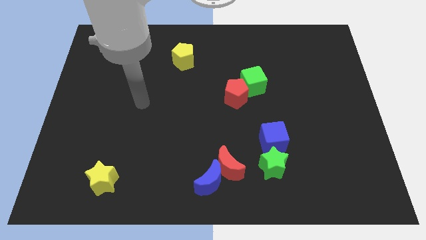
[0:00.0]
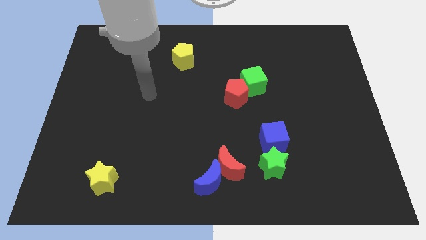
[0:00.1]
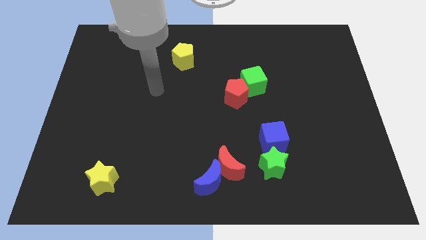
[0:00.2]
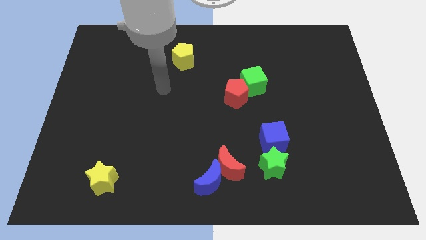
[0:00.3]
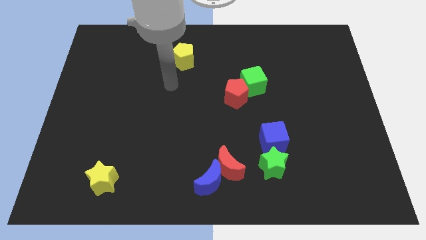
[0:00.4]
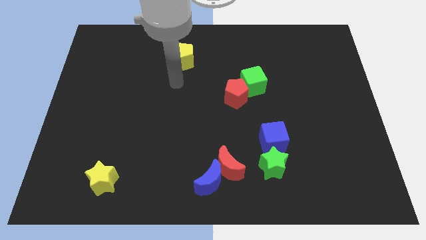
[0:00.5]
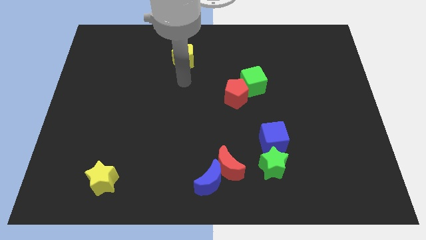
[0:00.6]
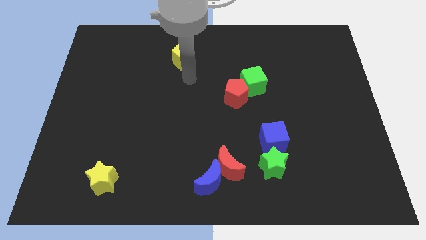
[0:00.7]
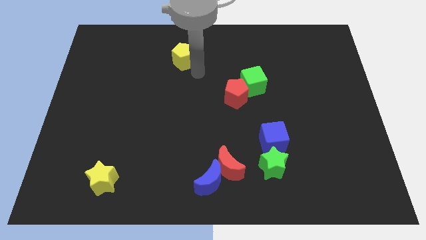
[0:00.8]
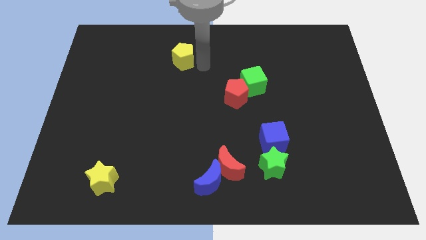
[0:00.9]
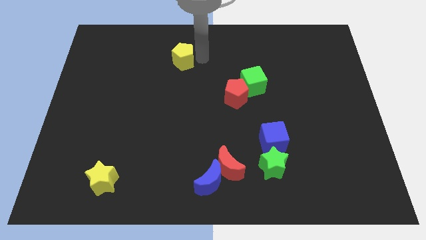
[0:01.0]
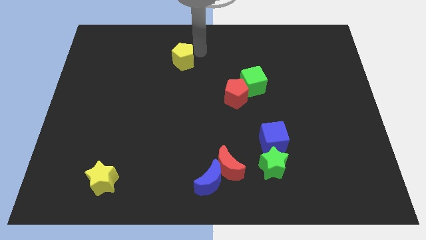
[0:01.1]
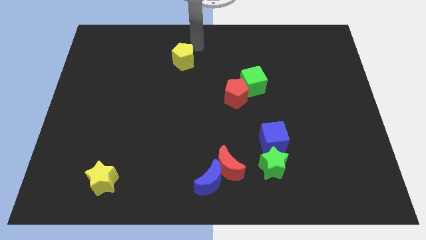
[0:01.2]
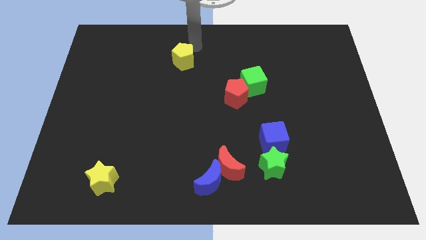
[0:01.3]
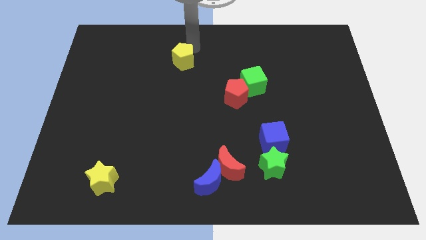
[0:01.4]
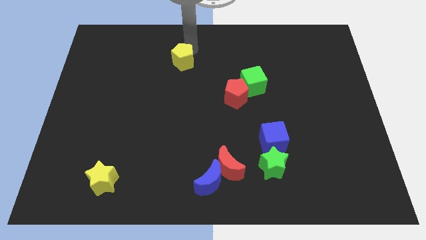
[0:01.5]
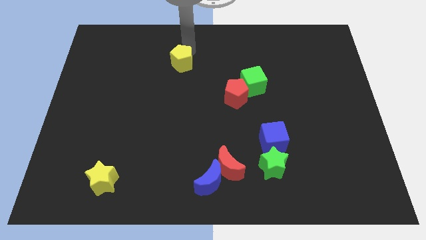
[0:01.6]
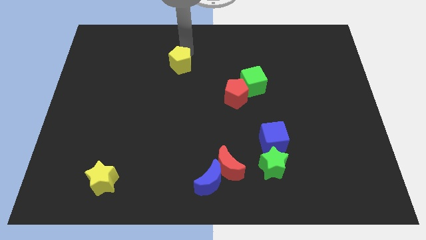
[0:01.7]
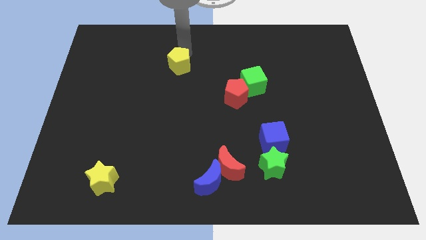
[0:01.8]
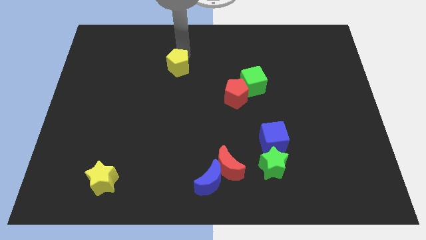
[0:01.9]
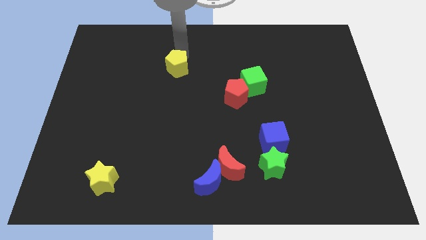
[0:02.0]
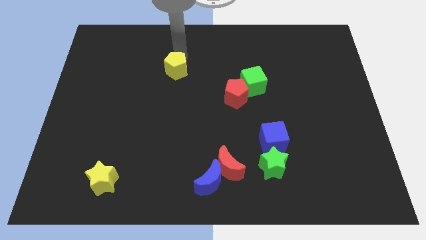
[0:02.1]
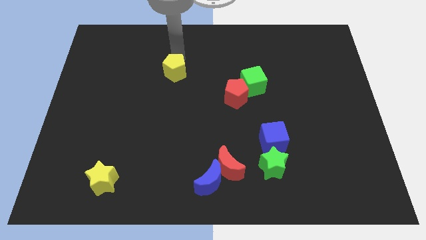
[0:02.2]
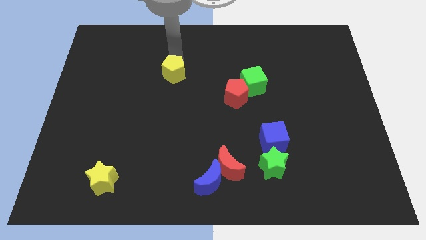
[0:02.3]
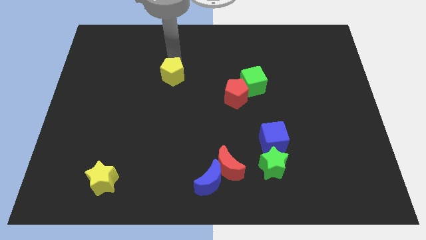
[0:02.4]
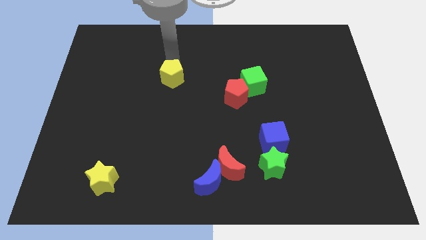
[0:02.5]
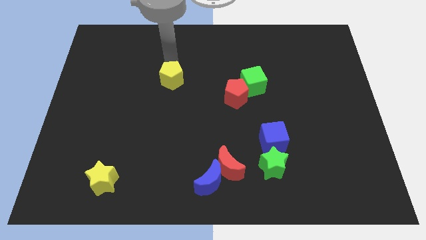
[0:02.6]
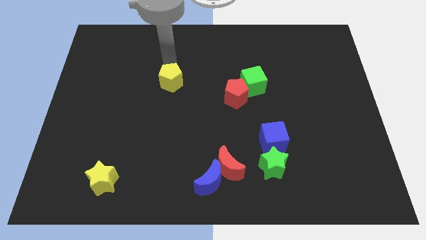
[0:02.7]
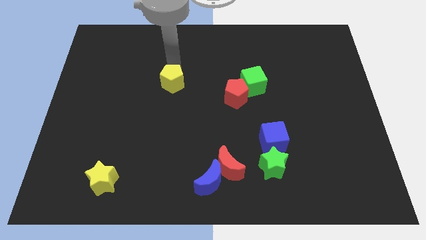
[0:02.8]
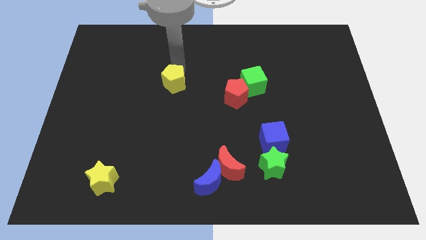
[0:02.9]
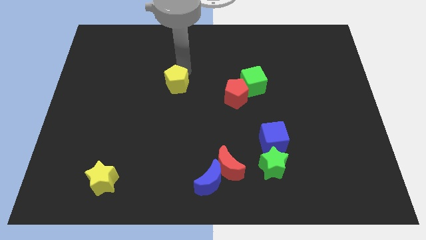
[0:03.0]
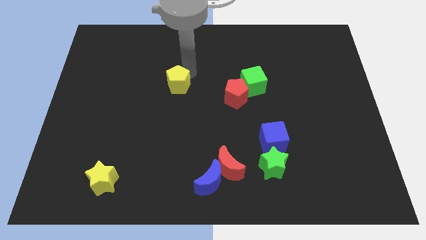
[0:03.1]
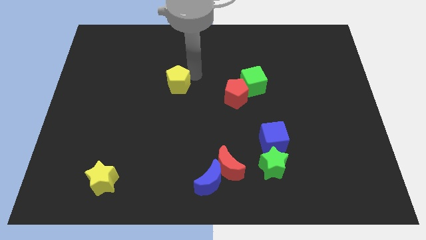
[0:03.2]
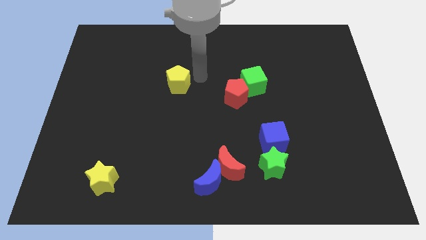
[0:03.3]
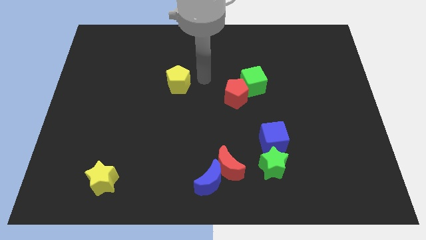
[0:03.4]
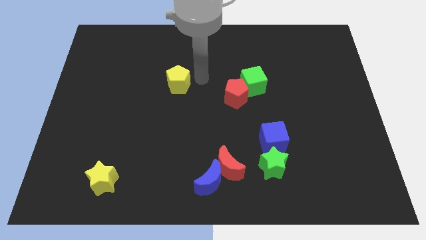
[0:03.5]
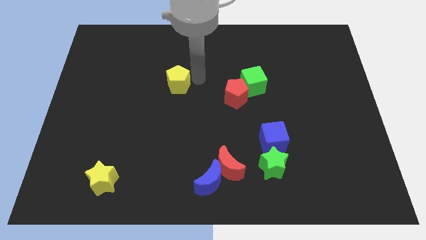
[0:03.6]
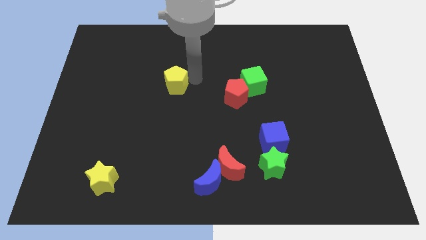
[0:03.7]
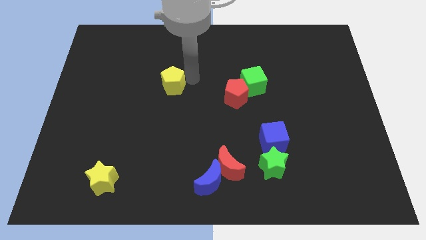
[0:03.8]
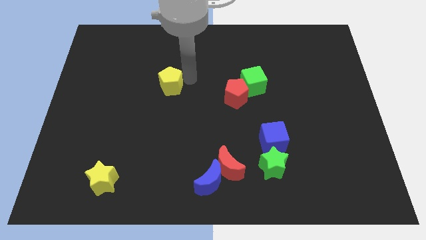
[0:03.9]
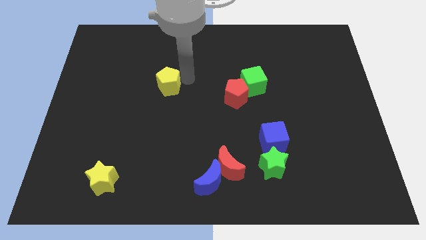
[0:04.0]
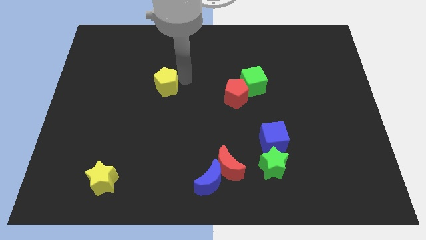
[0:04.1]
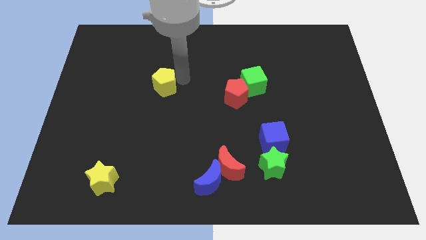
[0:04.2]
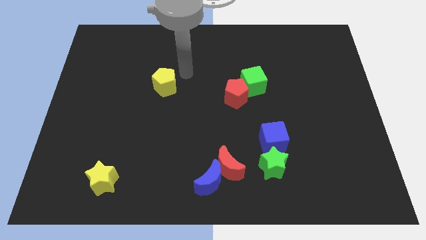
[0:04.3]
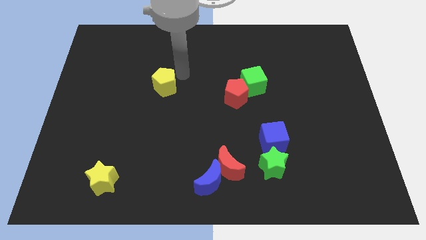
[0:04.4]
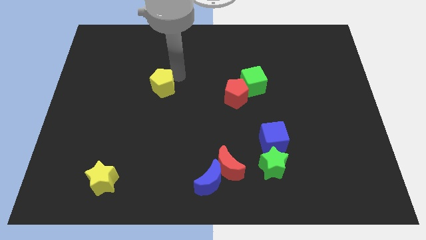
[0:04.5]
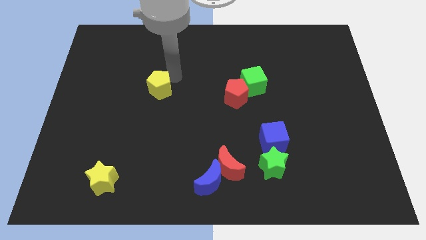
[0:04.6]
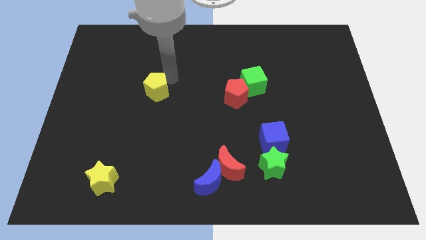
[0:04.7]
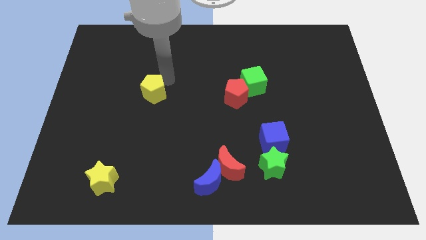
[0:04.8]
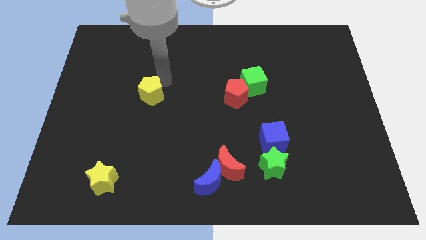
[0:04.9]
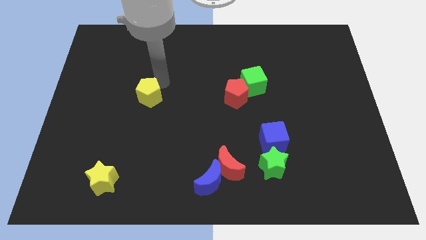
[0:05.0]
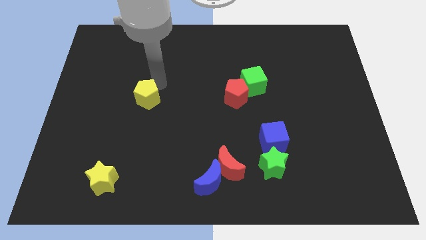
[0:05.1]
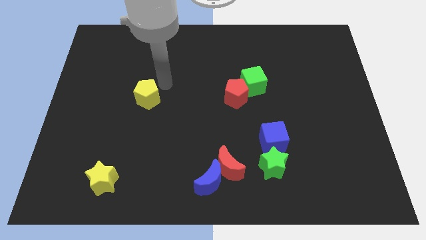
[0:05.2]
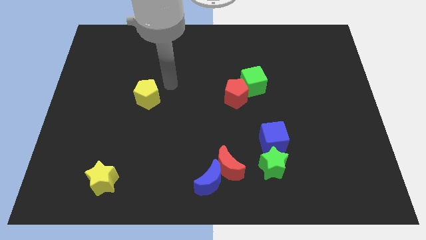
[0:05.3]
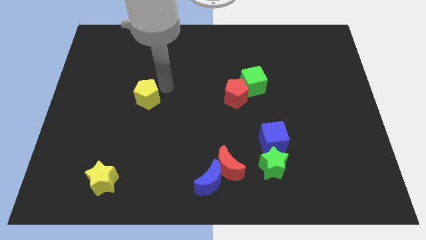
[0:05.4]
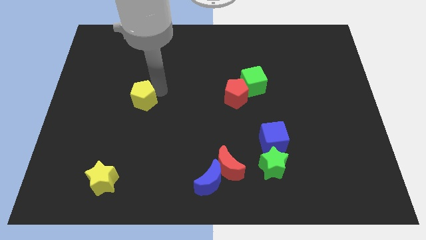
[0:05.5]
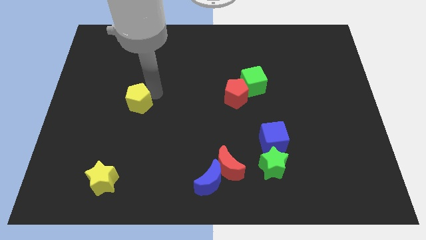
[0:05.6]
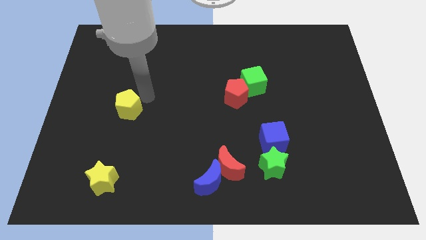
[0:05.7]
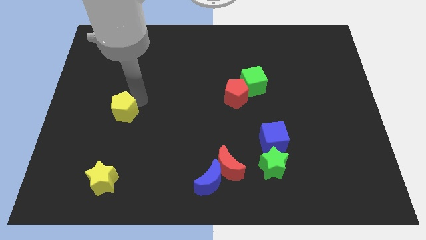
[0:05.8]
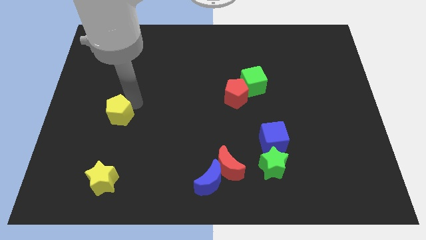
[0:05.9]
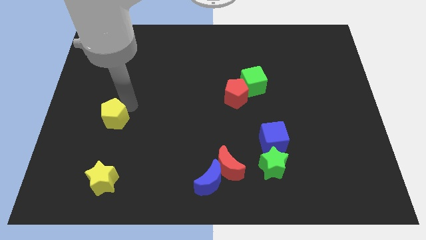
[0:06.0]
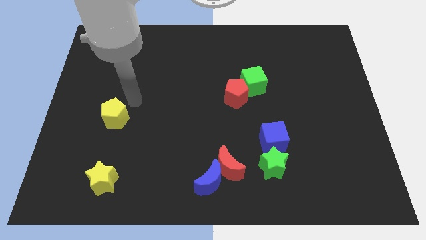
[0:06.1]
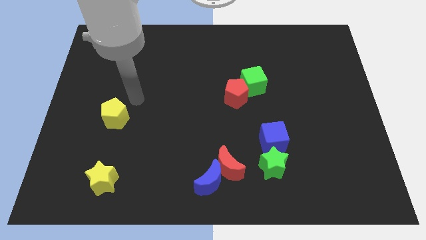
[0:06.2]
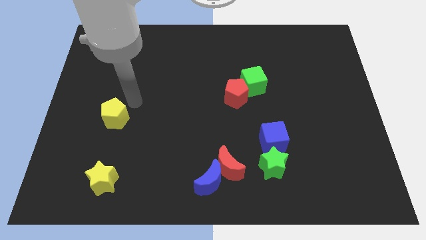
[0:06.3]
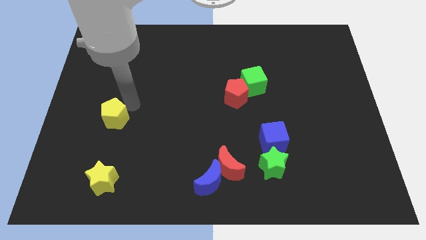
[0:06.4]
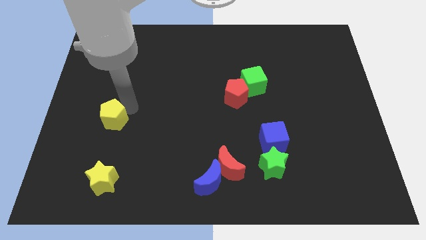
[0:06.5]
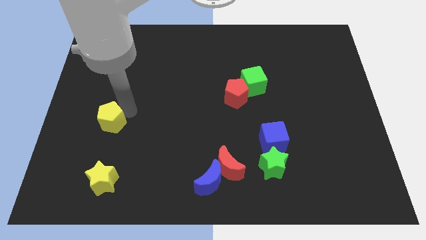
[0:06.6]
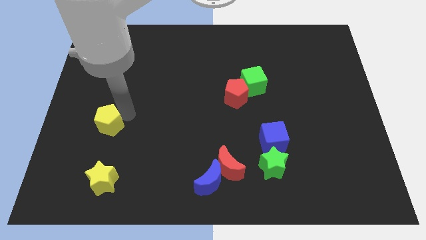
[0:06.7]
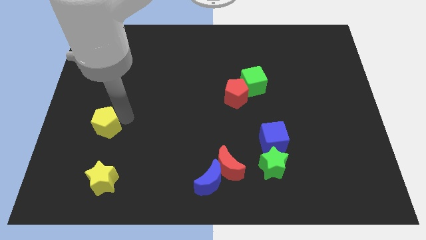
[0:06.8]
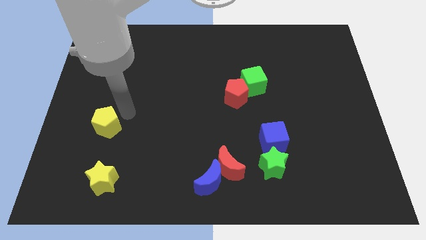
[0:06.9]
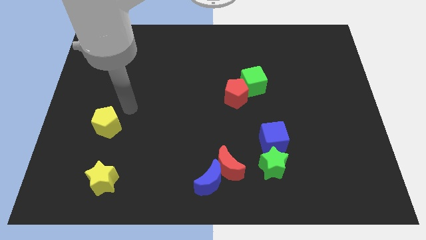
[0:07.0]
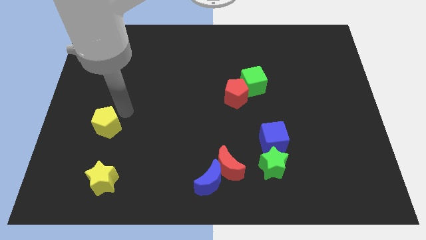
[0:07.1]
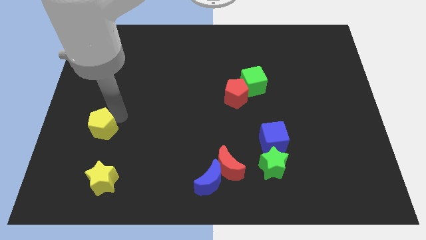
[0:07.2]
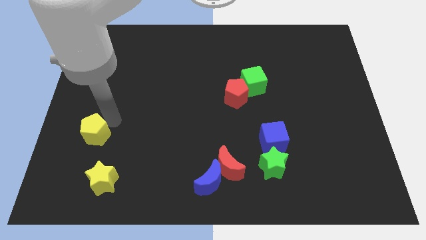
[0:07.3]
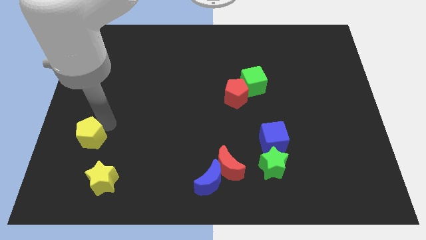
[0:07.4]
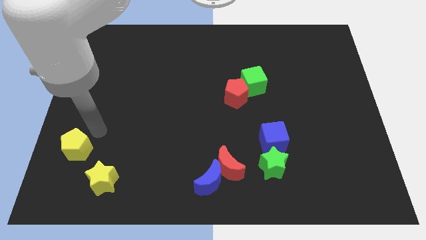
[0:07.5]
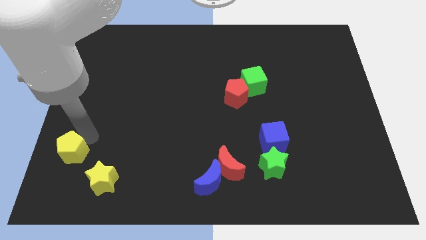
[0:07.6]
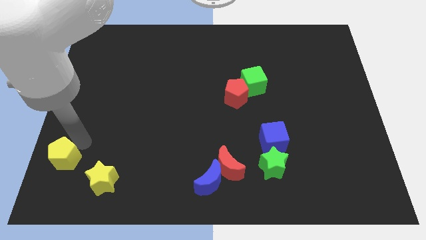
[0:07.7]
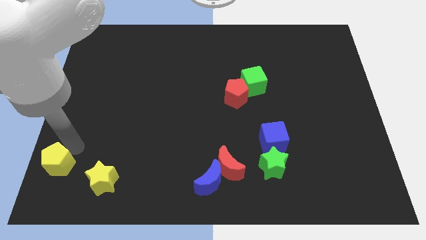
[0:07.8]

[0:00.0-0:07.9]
push the yellow pentagon to the bottom left corner
